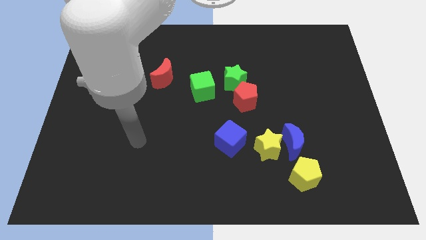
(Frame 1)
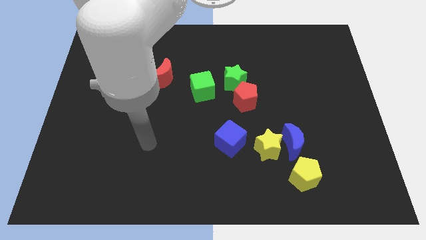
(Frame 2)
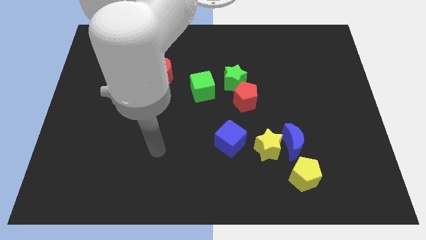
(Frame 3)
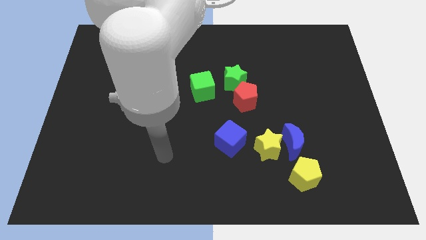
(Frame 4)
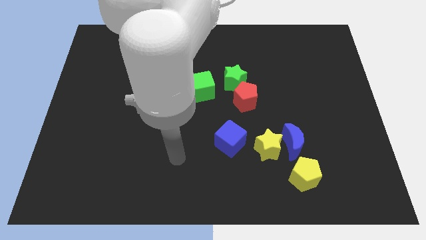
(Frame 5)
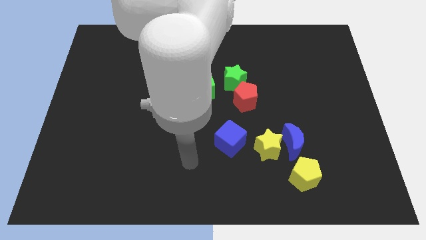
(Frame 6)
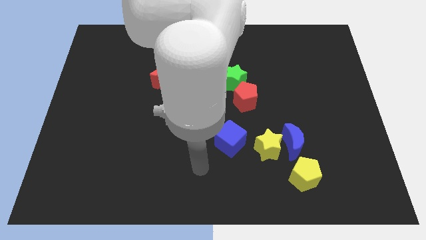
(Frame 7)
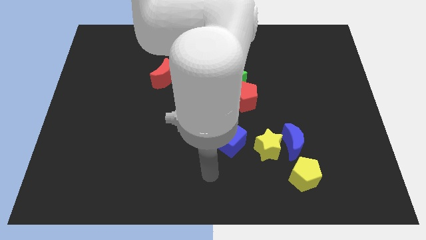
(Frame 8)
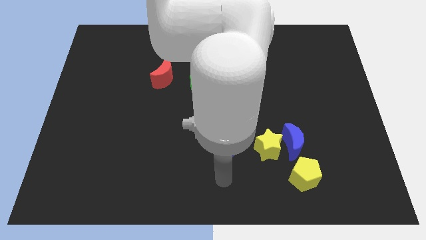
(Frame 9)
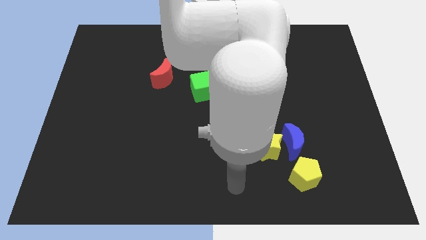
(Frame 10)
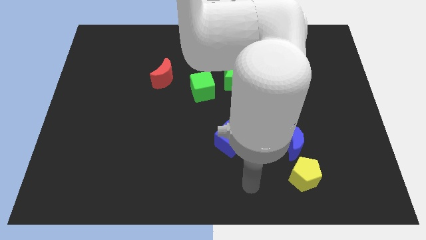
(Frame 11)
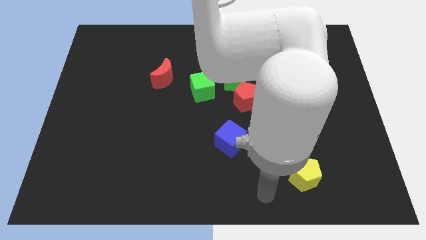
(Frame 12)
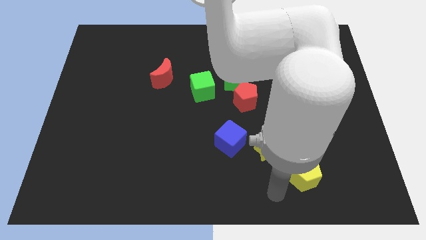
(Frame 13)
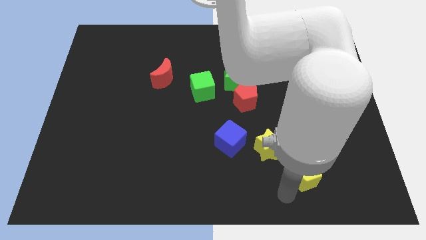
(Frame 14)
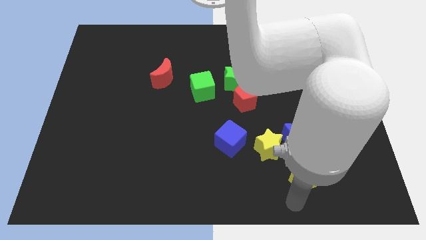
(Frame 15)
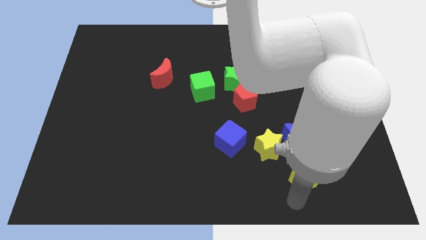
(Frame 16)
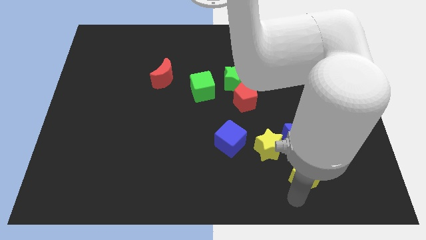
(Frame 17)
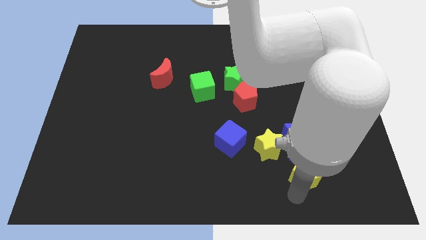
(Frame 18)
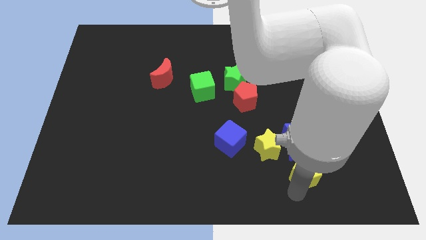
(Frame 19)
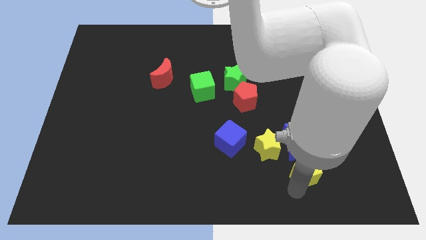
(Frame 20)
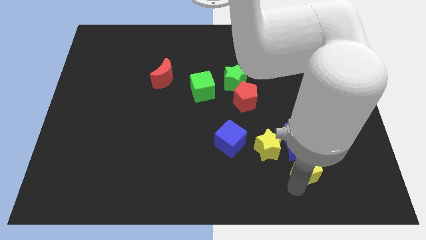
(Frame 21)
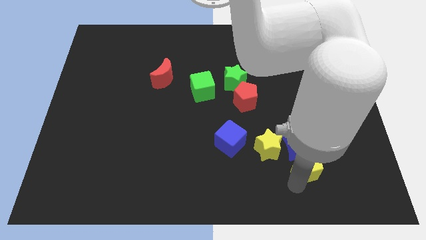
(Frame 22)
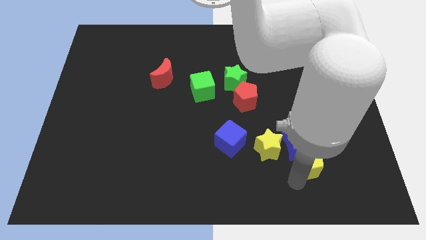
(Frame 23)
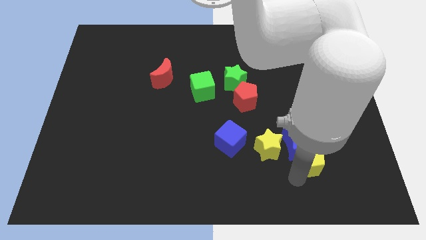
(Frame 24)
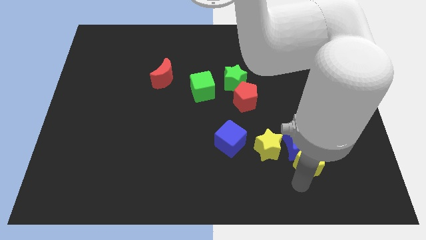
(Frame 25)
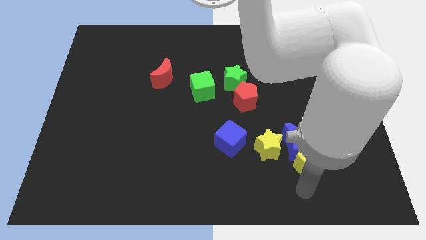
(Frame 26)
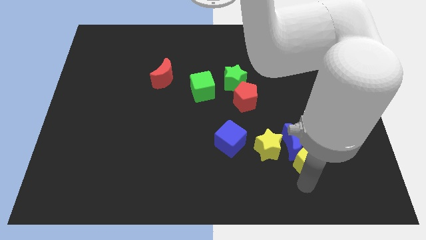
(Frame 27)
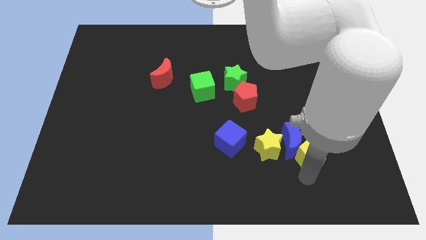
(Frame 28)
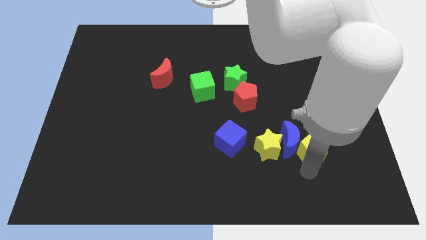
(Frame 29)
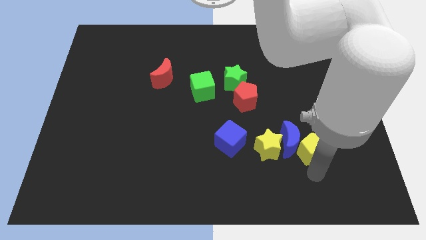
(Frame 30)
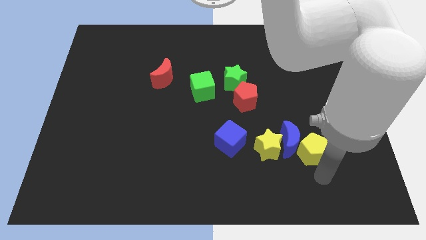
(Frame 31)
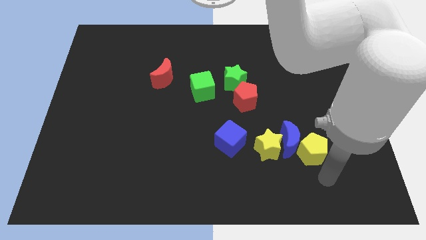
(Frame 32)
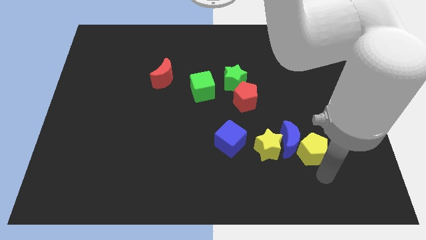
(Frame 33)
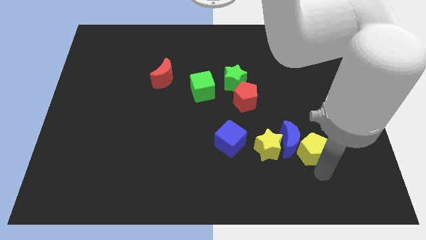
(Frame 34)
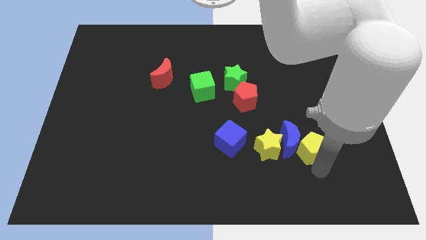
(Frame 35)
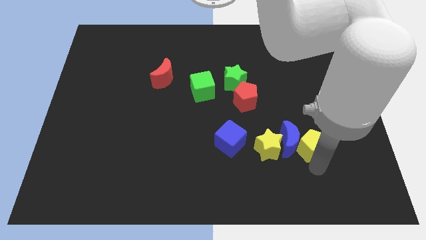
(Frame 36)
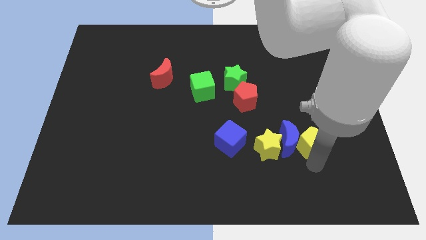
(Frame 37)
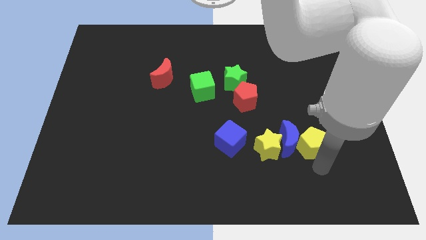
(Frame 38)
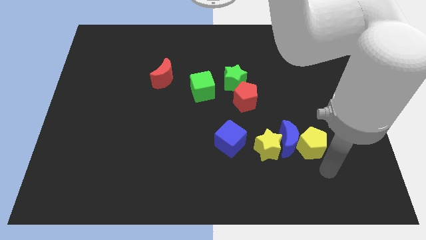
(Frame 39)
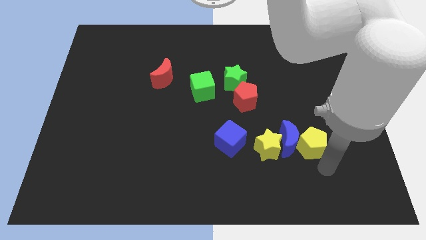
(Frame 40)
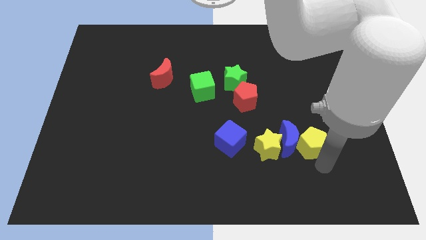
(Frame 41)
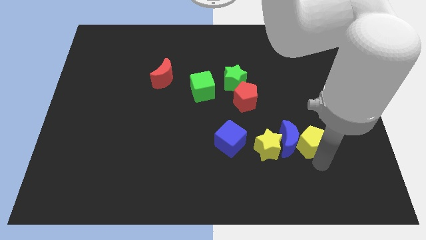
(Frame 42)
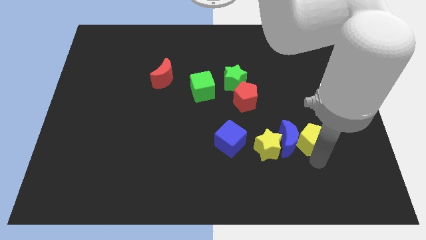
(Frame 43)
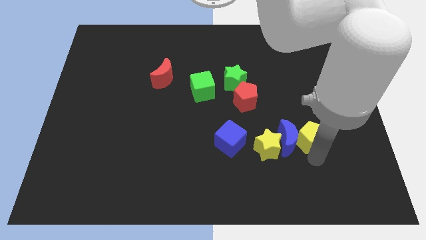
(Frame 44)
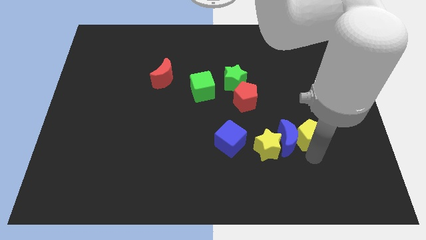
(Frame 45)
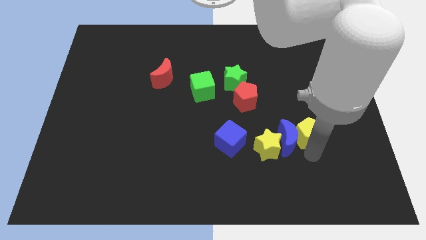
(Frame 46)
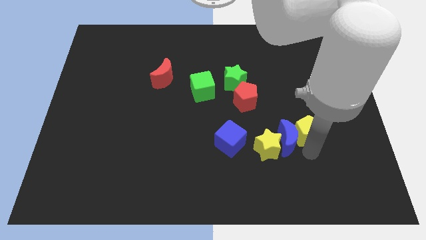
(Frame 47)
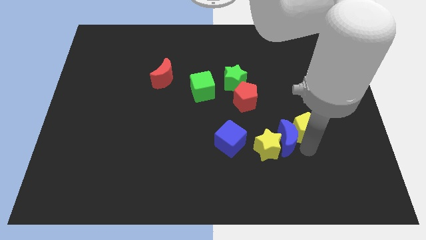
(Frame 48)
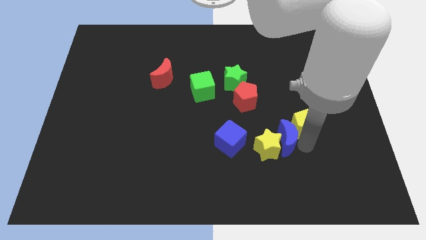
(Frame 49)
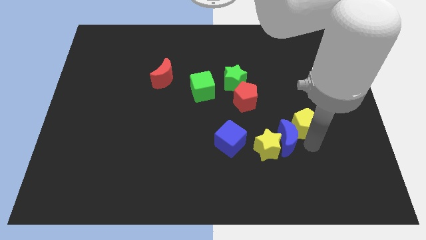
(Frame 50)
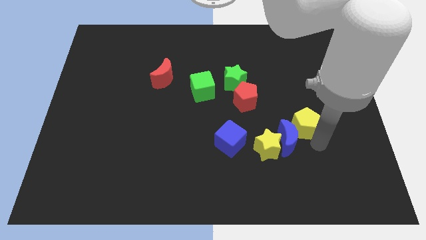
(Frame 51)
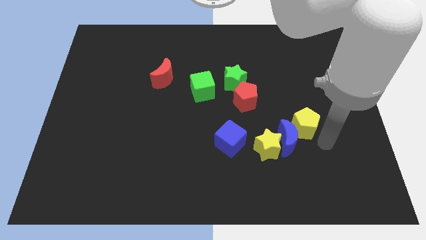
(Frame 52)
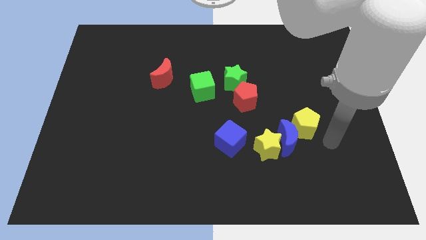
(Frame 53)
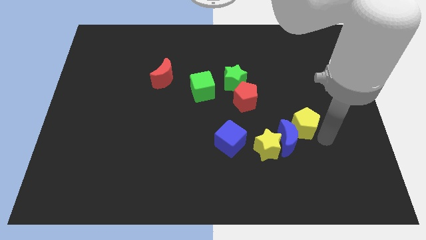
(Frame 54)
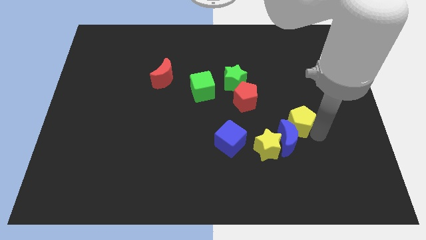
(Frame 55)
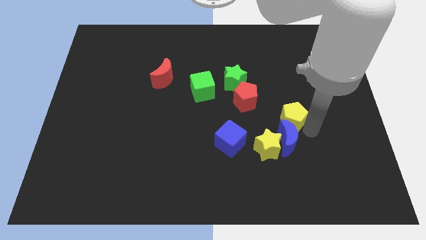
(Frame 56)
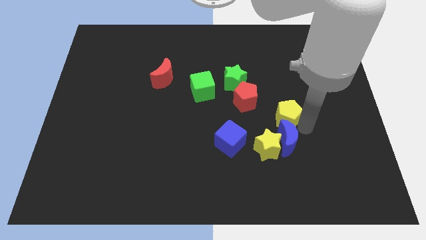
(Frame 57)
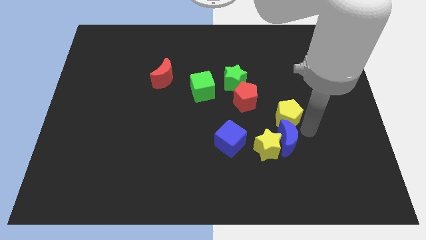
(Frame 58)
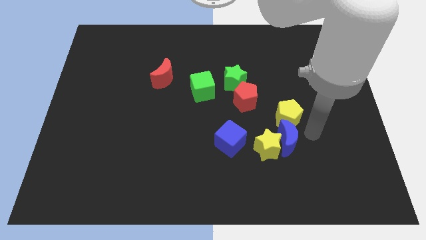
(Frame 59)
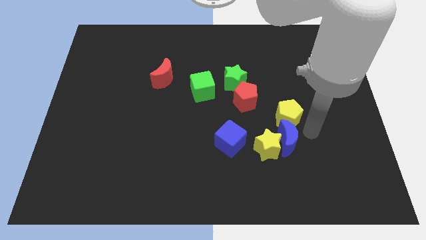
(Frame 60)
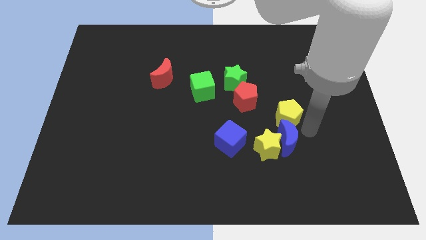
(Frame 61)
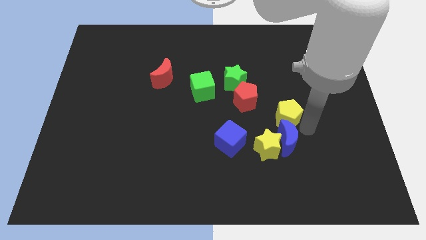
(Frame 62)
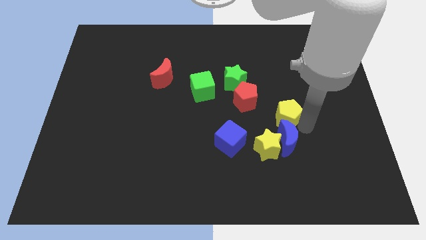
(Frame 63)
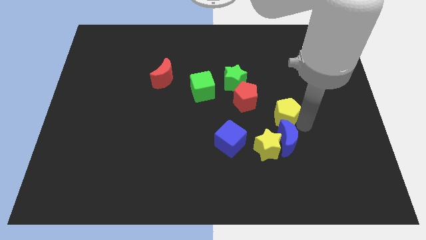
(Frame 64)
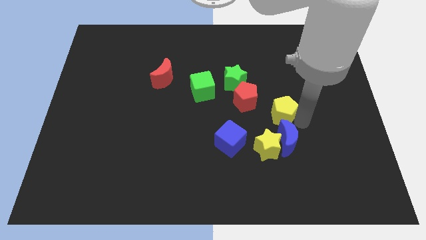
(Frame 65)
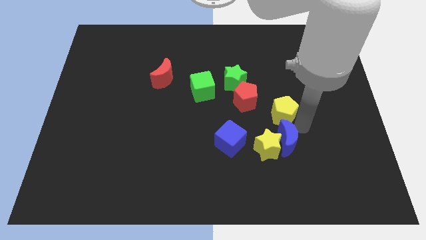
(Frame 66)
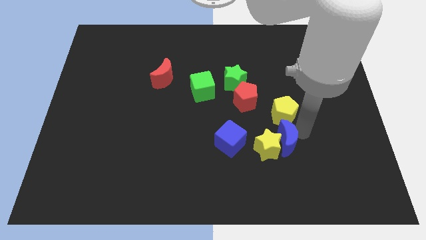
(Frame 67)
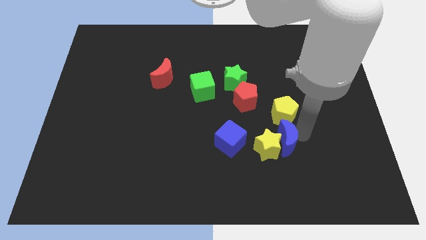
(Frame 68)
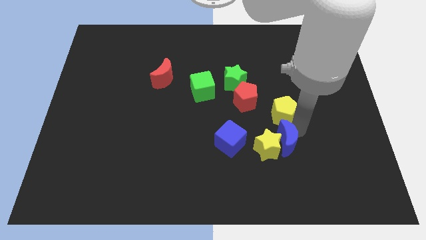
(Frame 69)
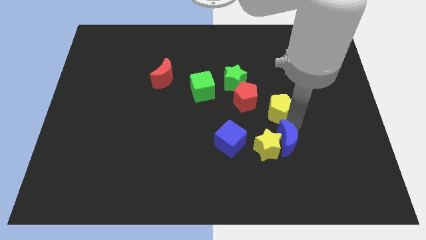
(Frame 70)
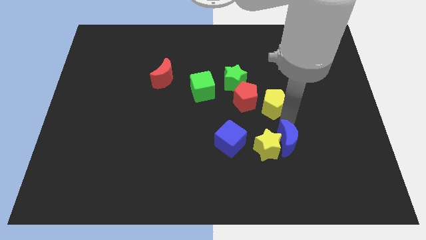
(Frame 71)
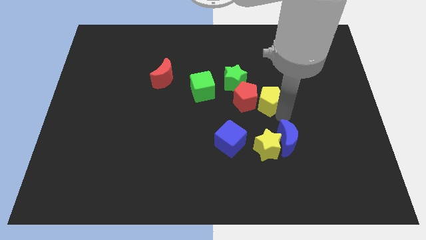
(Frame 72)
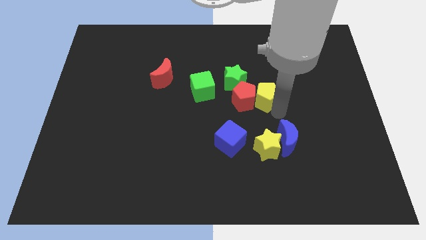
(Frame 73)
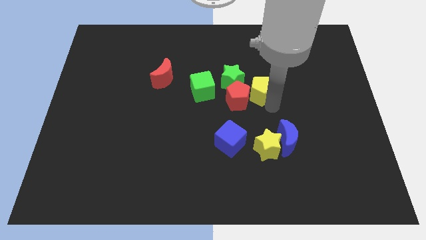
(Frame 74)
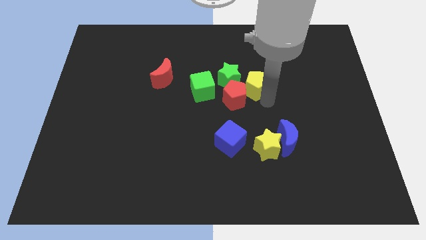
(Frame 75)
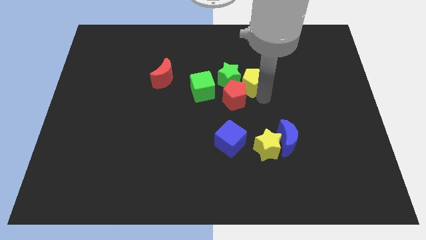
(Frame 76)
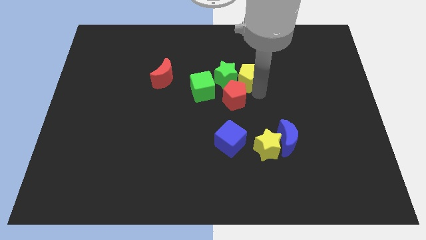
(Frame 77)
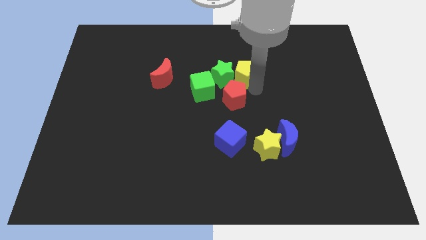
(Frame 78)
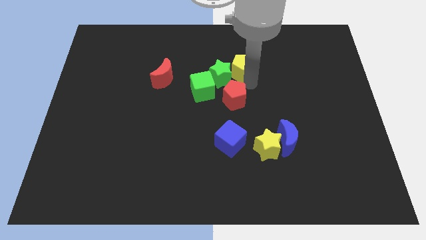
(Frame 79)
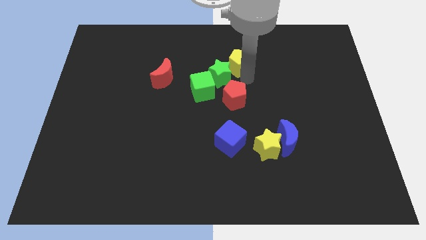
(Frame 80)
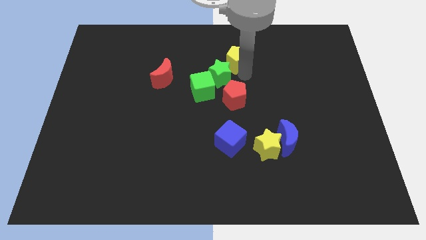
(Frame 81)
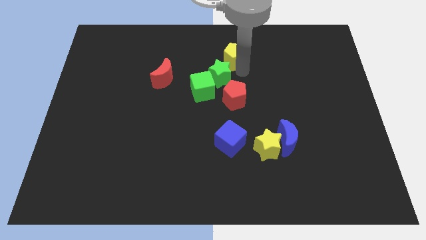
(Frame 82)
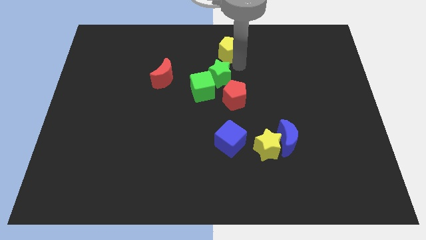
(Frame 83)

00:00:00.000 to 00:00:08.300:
put the yellow pentagon to the top
